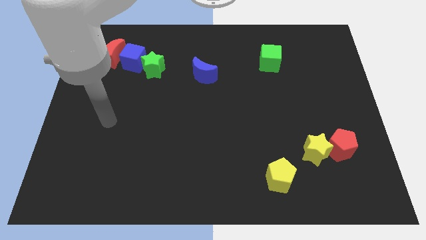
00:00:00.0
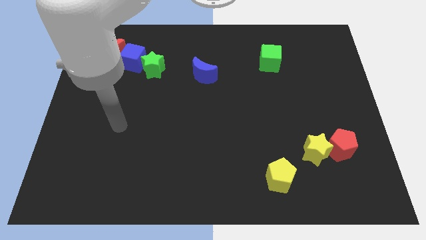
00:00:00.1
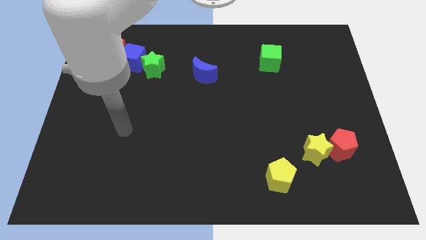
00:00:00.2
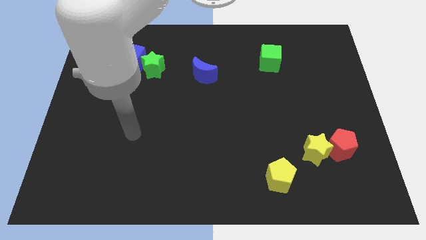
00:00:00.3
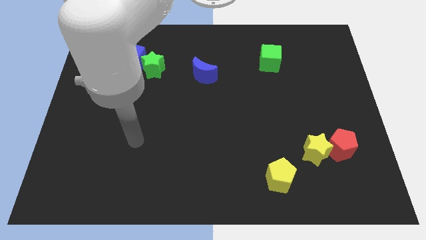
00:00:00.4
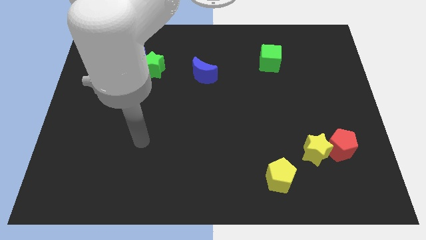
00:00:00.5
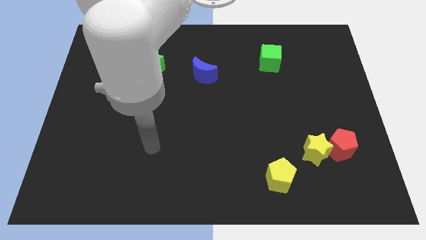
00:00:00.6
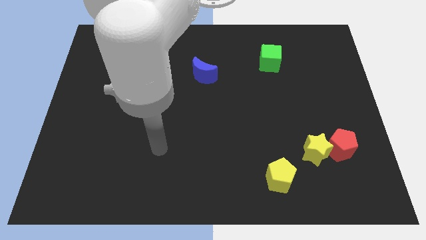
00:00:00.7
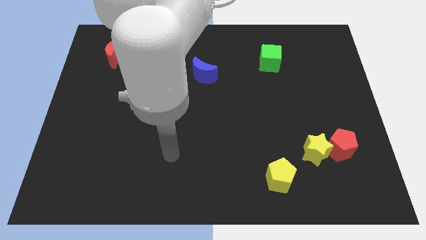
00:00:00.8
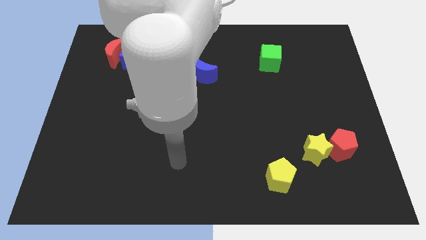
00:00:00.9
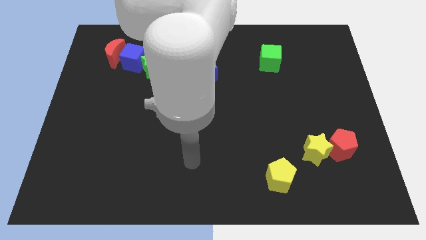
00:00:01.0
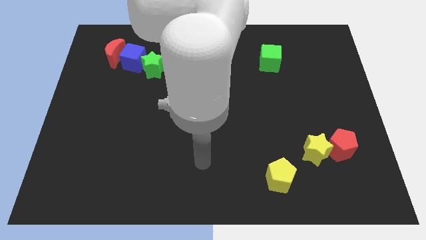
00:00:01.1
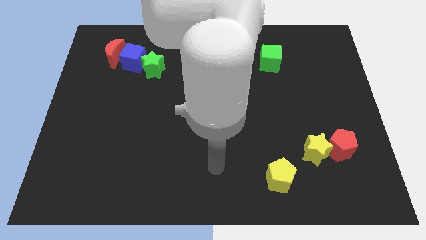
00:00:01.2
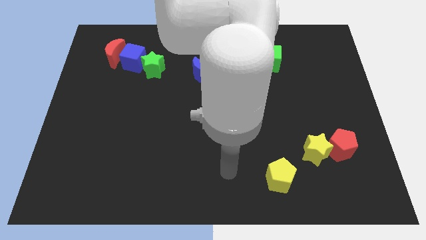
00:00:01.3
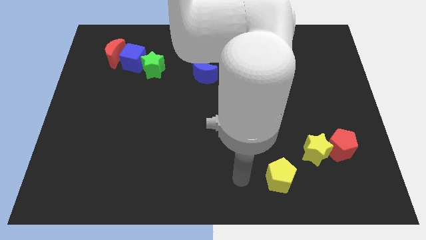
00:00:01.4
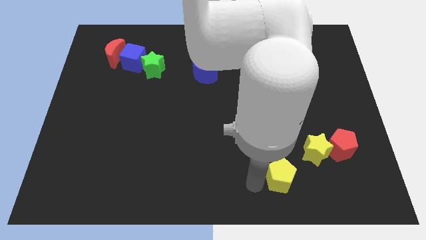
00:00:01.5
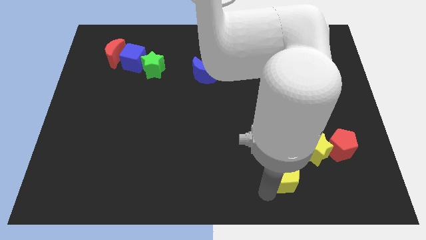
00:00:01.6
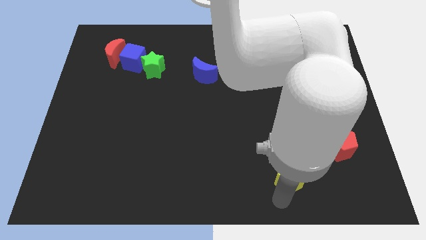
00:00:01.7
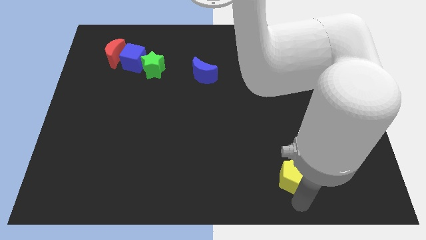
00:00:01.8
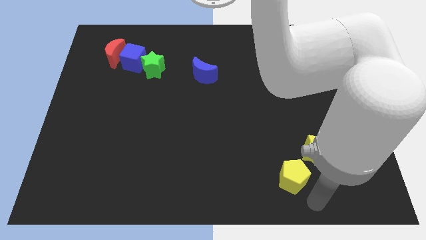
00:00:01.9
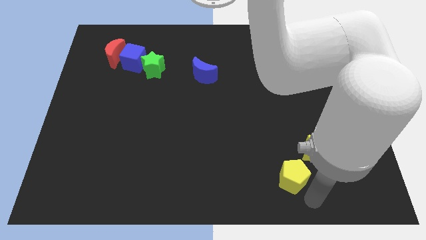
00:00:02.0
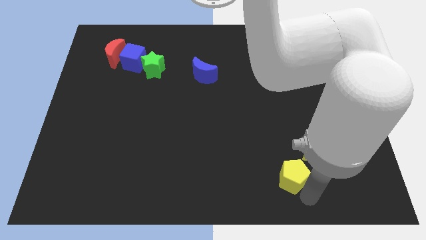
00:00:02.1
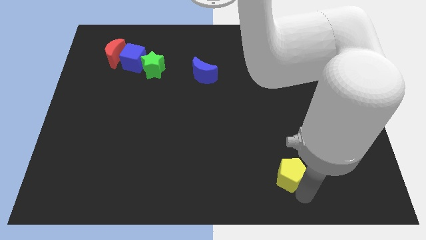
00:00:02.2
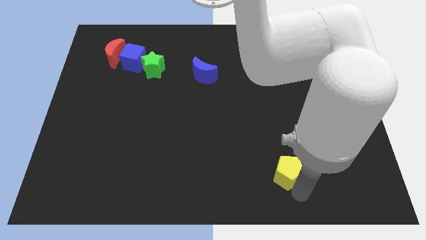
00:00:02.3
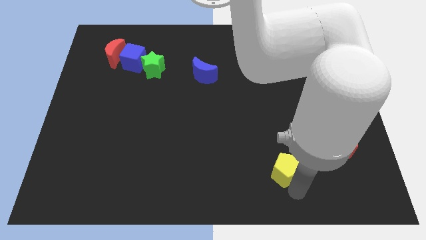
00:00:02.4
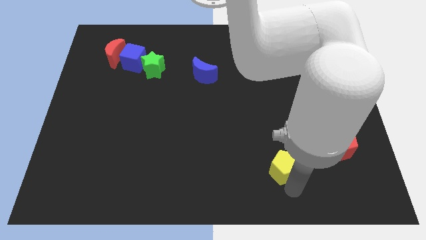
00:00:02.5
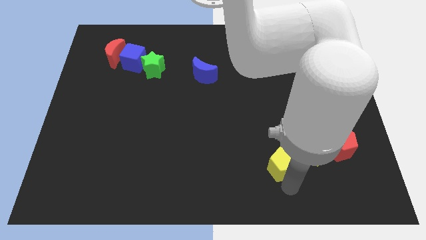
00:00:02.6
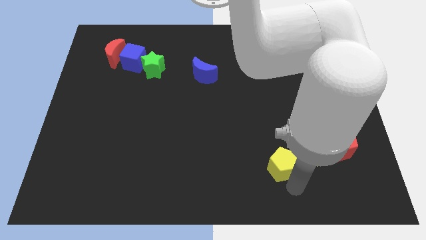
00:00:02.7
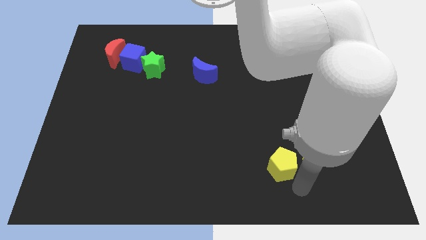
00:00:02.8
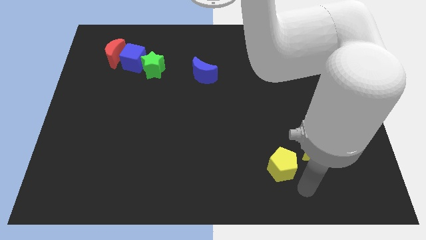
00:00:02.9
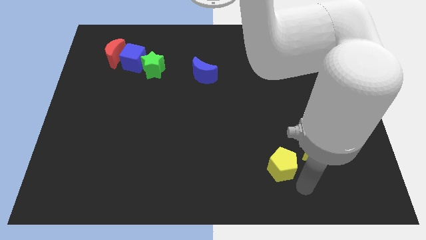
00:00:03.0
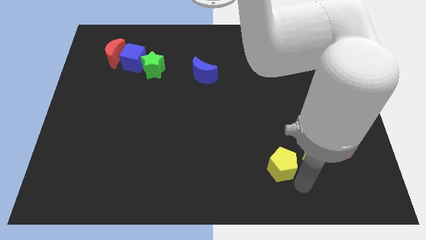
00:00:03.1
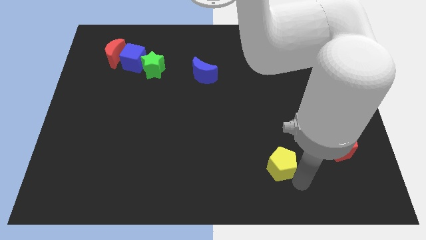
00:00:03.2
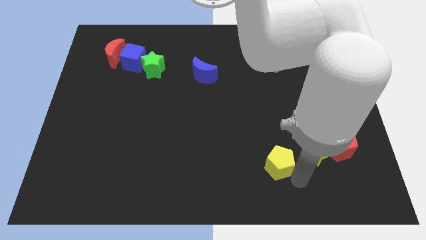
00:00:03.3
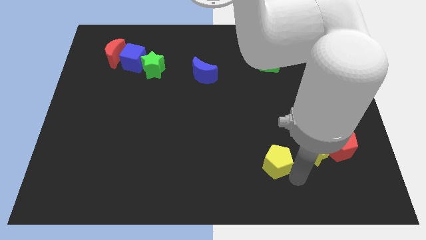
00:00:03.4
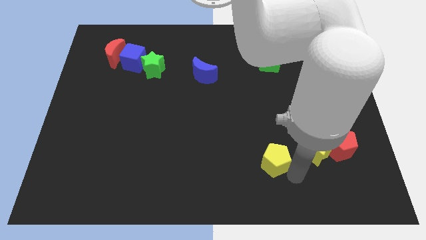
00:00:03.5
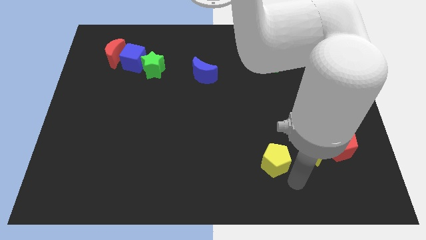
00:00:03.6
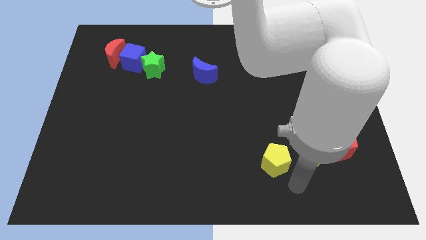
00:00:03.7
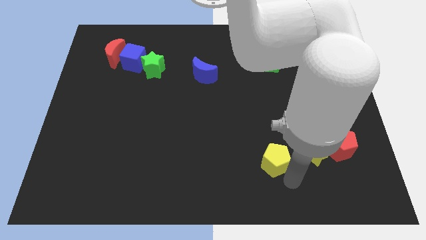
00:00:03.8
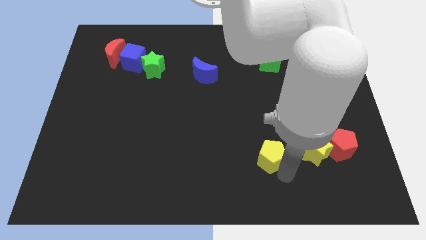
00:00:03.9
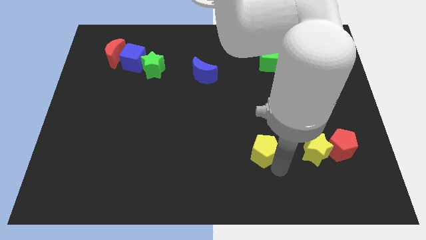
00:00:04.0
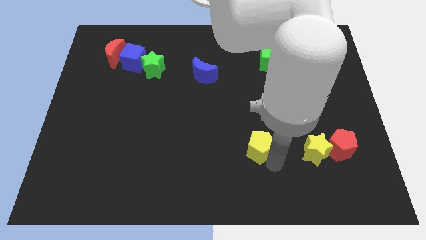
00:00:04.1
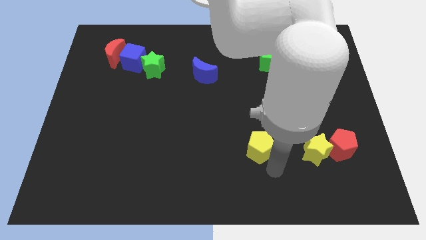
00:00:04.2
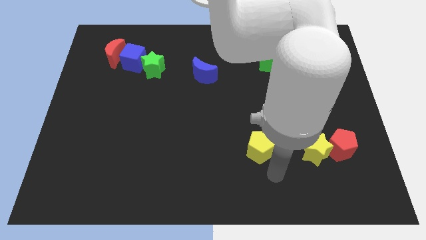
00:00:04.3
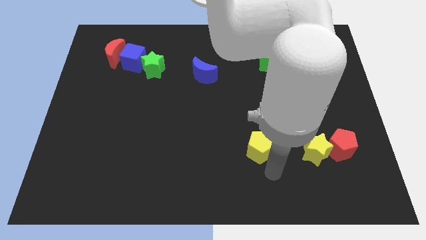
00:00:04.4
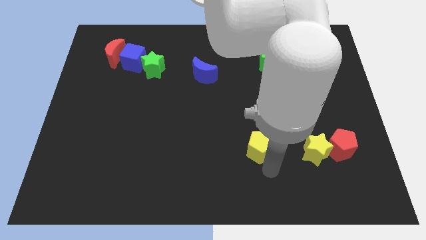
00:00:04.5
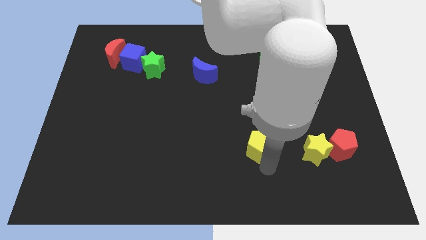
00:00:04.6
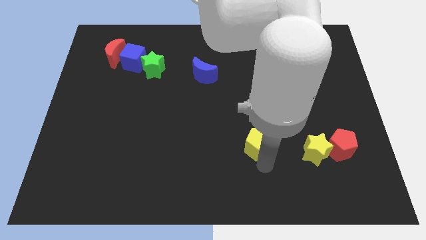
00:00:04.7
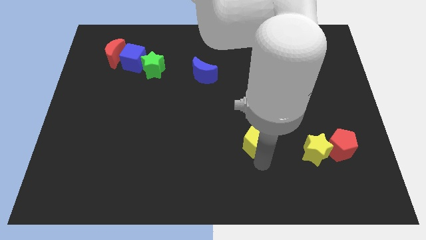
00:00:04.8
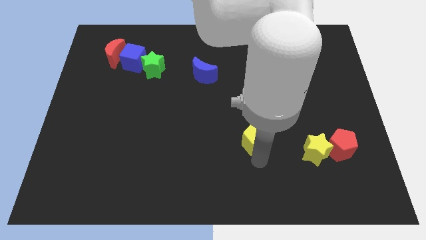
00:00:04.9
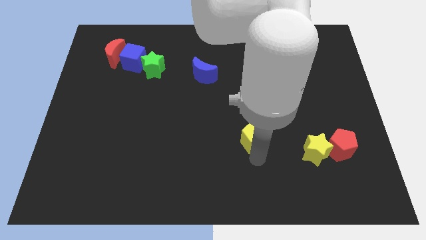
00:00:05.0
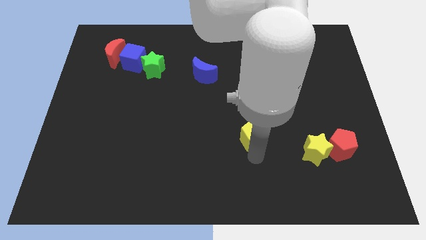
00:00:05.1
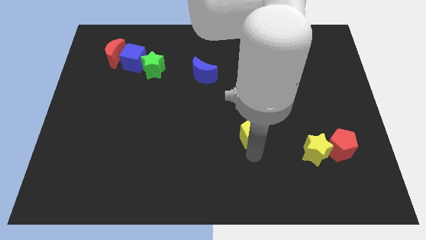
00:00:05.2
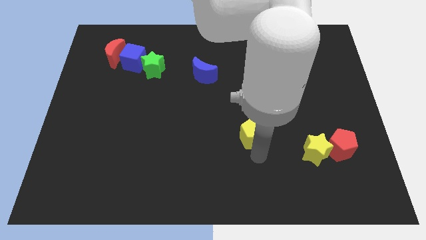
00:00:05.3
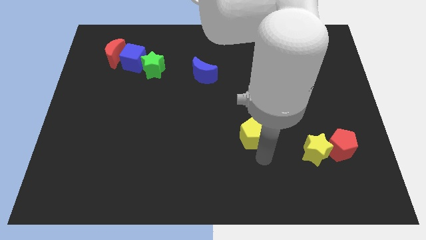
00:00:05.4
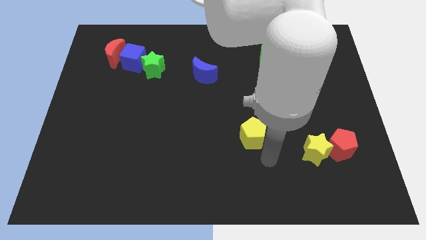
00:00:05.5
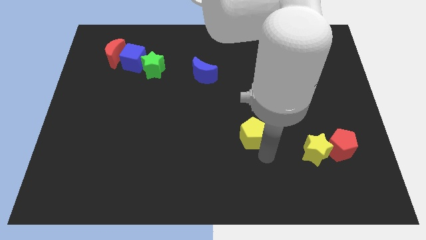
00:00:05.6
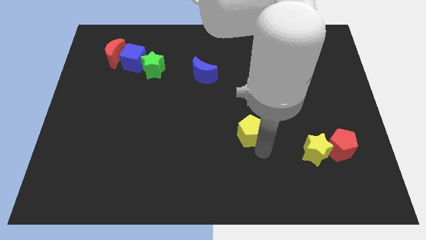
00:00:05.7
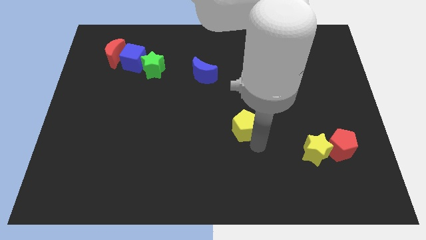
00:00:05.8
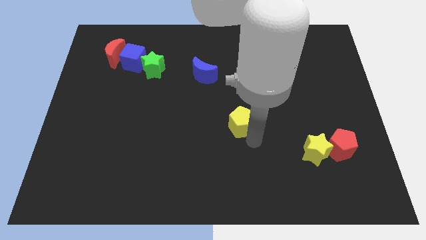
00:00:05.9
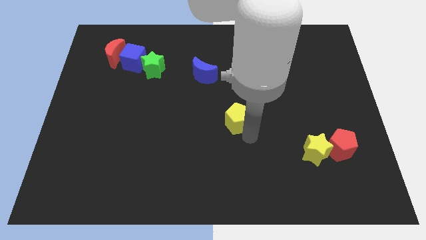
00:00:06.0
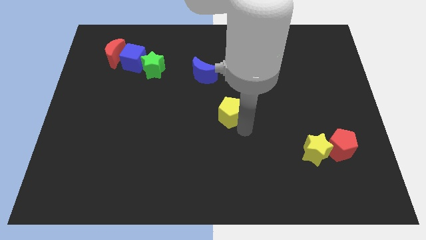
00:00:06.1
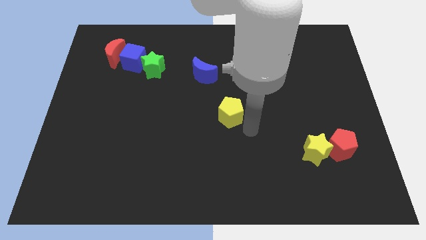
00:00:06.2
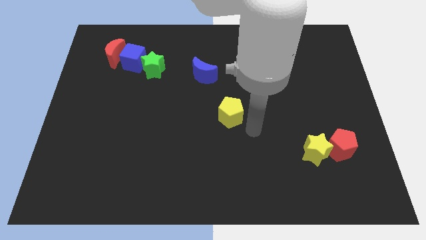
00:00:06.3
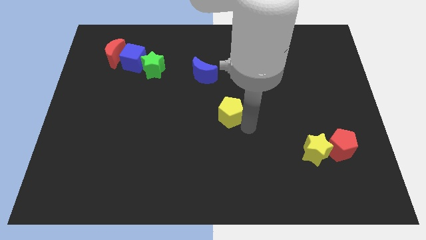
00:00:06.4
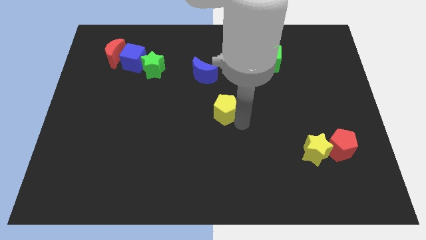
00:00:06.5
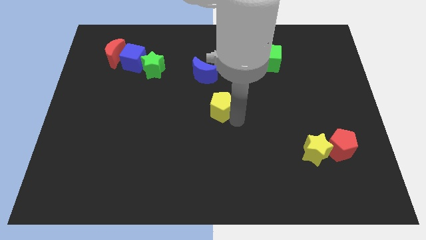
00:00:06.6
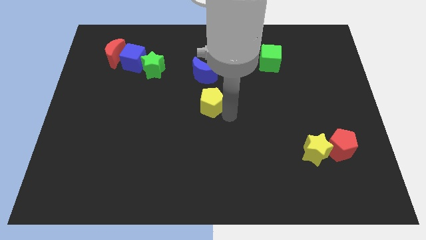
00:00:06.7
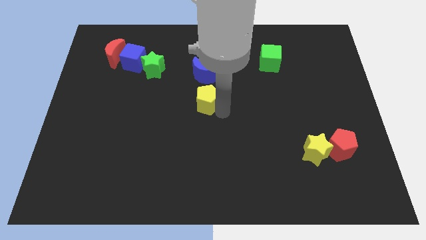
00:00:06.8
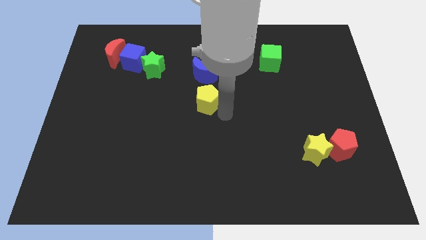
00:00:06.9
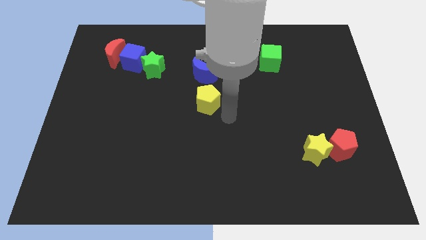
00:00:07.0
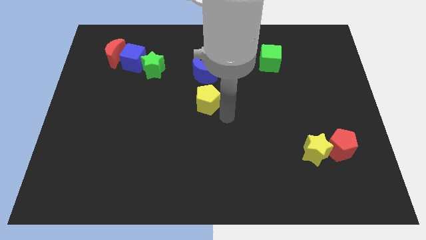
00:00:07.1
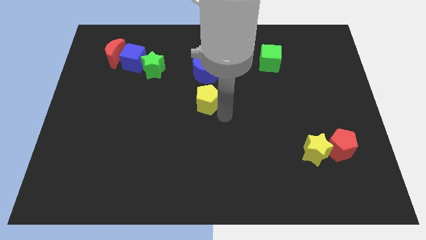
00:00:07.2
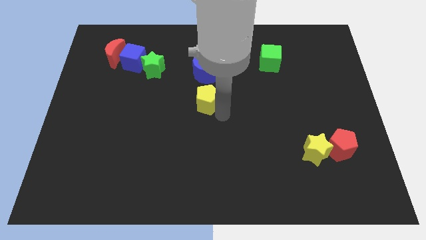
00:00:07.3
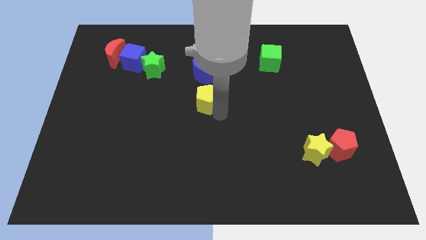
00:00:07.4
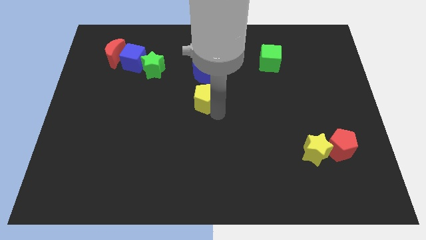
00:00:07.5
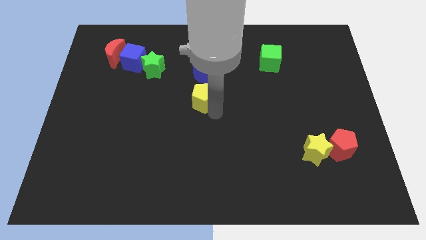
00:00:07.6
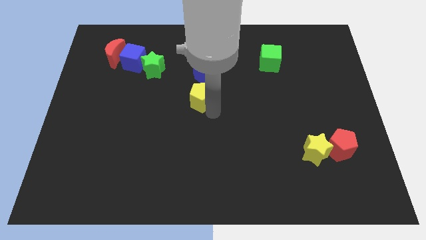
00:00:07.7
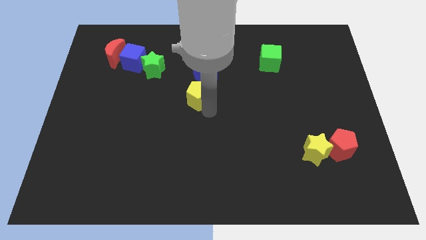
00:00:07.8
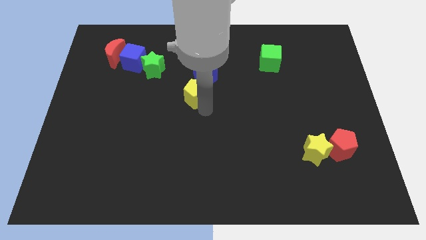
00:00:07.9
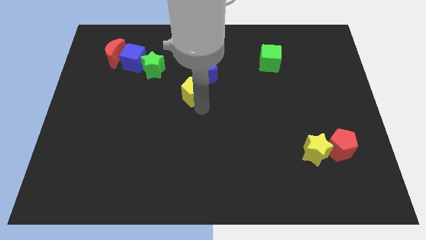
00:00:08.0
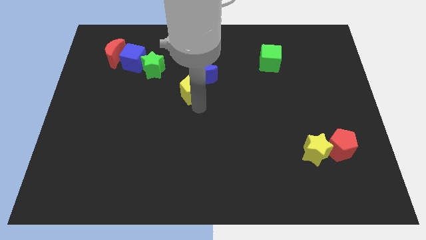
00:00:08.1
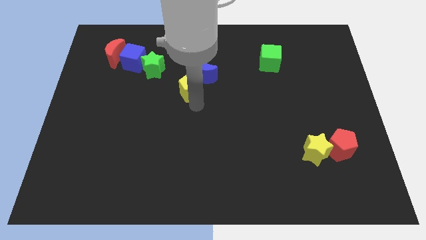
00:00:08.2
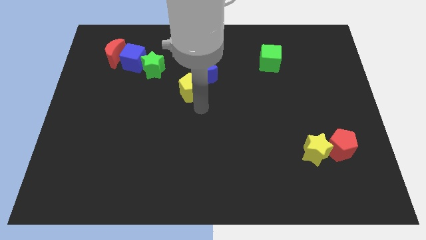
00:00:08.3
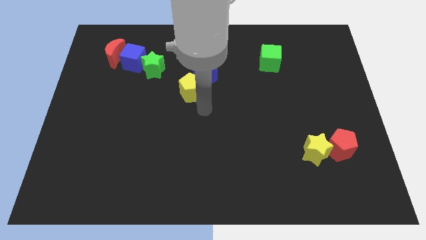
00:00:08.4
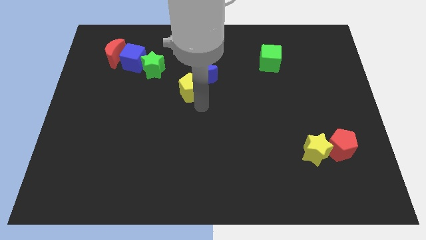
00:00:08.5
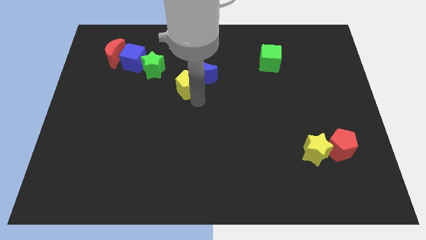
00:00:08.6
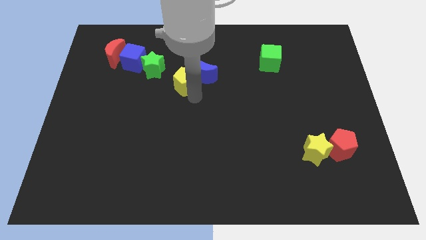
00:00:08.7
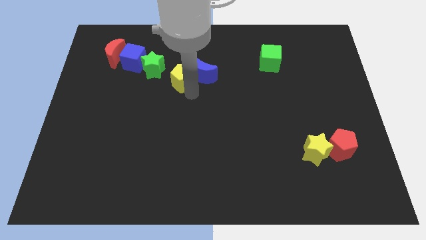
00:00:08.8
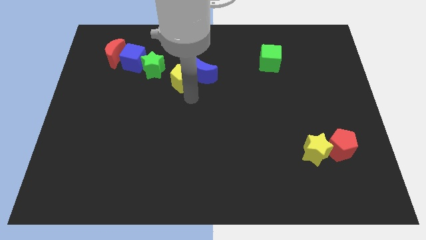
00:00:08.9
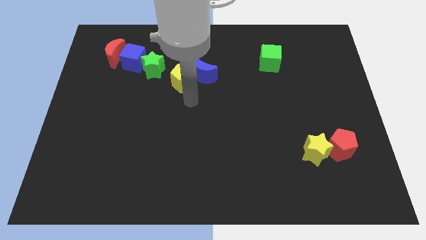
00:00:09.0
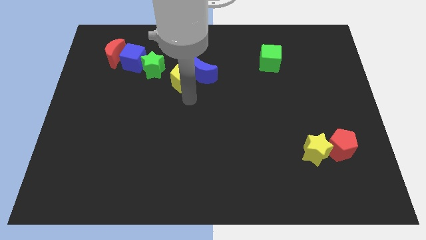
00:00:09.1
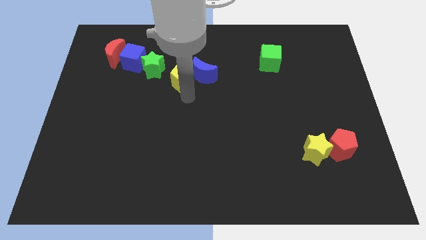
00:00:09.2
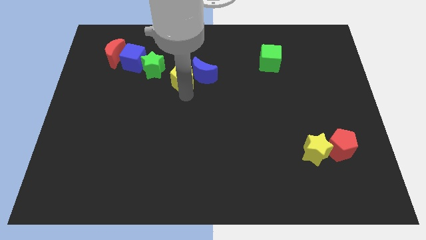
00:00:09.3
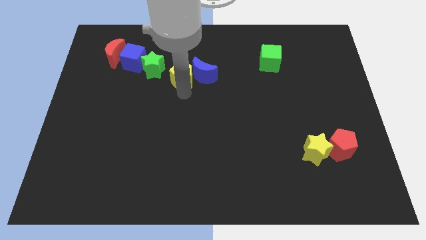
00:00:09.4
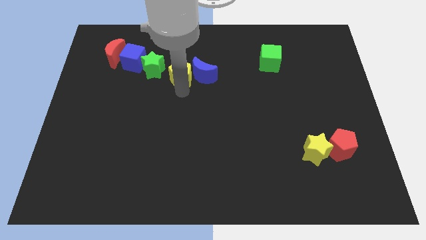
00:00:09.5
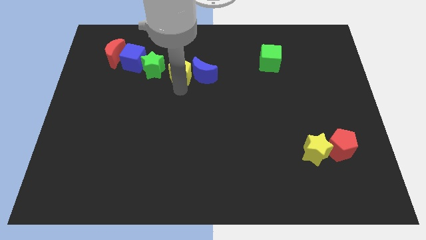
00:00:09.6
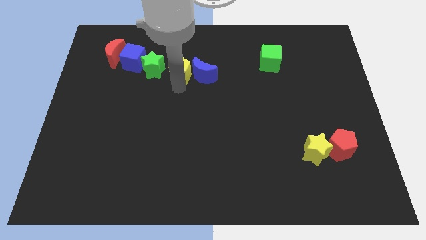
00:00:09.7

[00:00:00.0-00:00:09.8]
put the yellow pentagon just right of the blue cube
